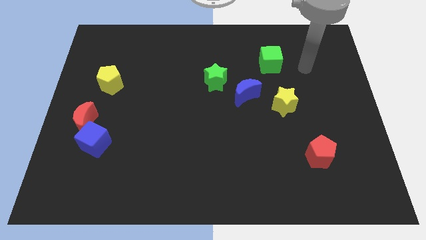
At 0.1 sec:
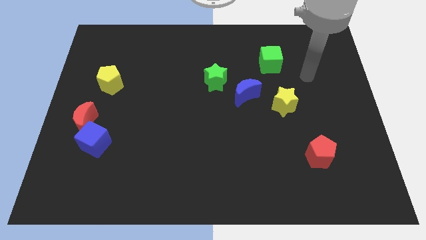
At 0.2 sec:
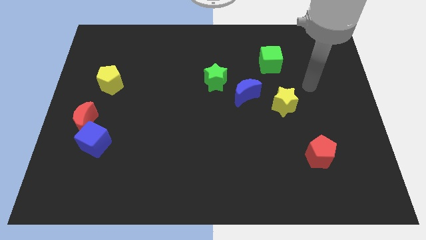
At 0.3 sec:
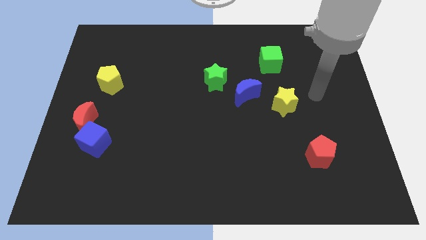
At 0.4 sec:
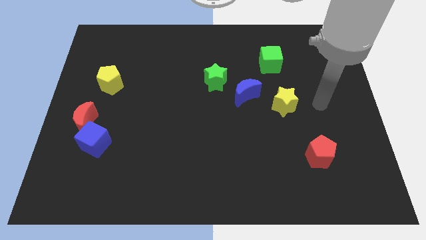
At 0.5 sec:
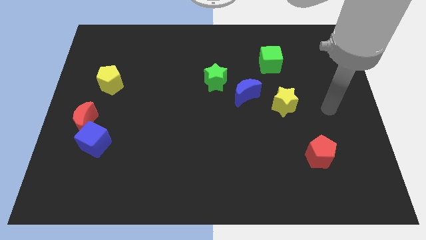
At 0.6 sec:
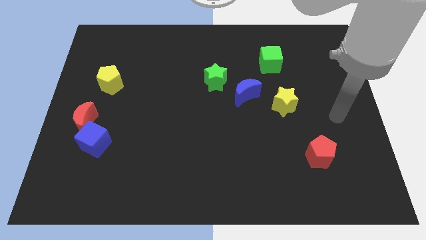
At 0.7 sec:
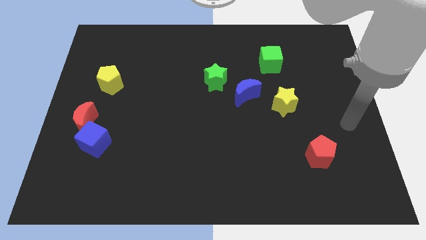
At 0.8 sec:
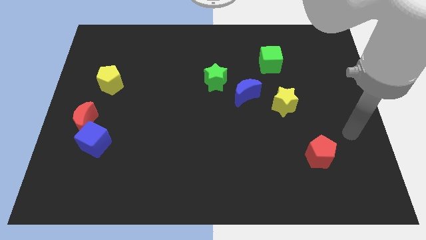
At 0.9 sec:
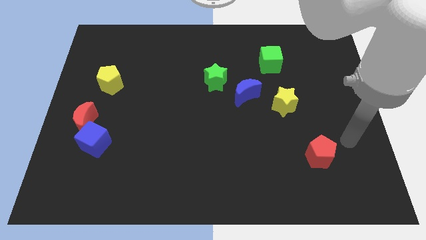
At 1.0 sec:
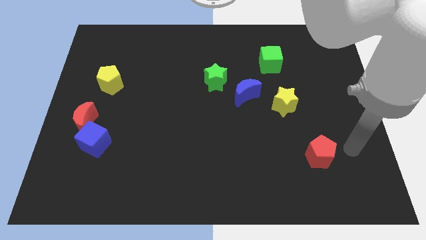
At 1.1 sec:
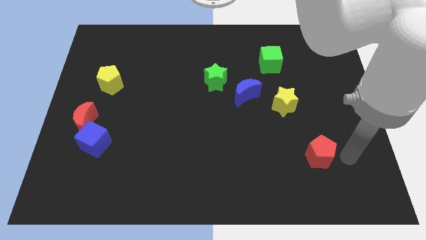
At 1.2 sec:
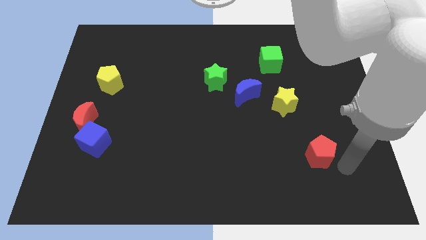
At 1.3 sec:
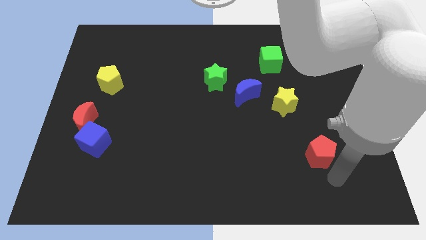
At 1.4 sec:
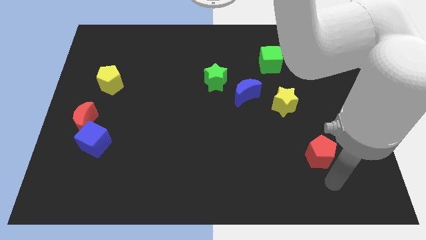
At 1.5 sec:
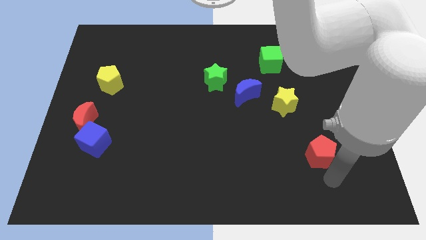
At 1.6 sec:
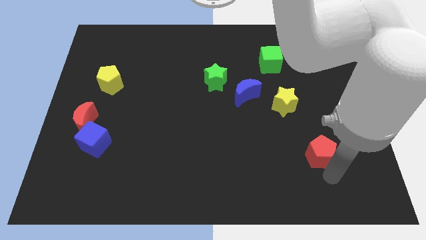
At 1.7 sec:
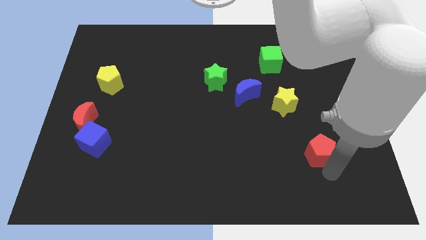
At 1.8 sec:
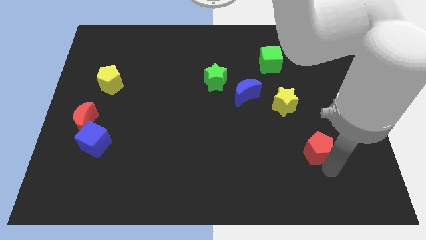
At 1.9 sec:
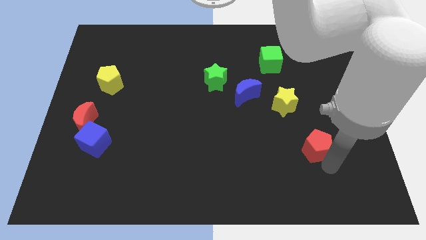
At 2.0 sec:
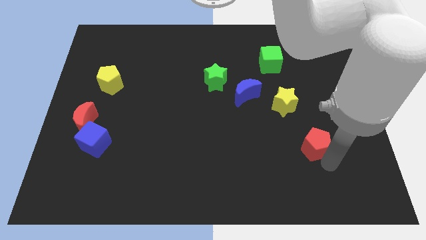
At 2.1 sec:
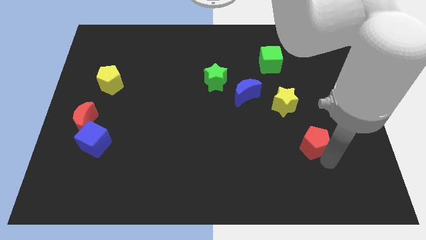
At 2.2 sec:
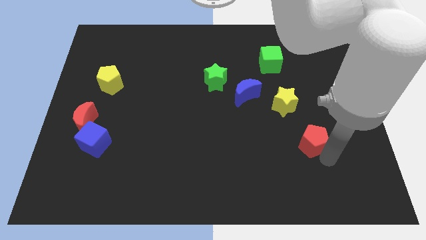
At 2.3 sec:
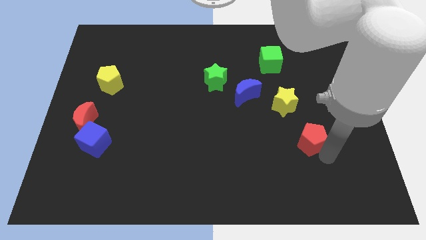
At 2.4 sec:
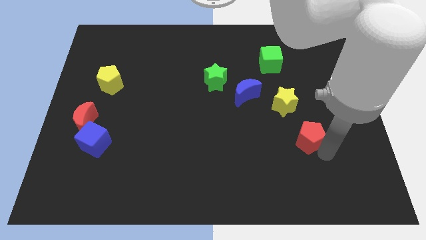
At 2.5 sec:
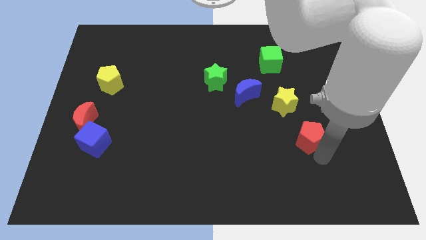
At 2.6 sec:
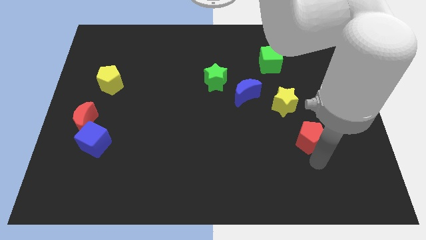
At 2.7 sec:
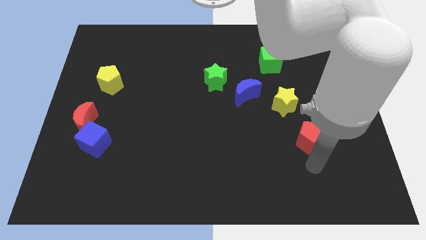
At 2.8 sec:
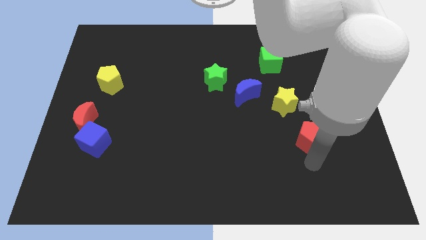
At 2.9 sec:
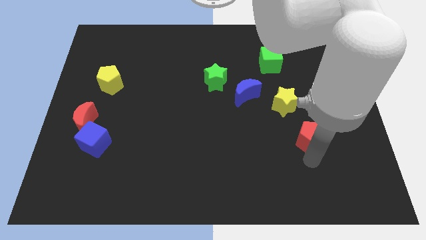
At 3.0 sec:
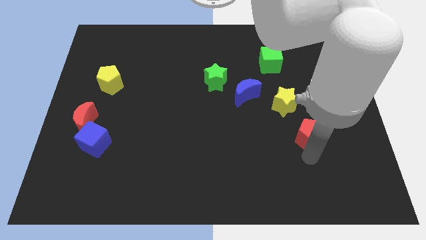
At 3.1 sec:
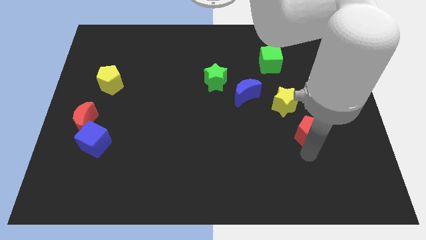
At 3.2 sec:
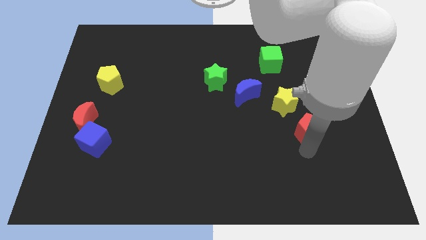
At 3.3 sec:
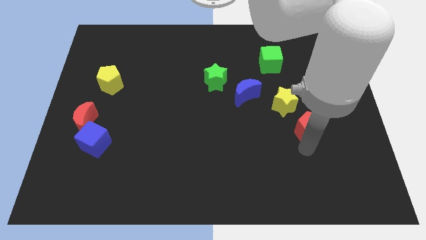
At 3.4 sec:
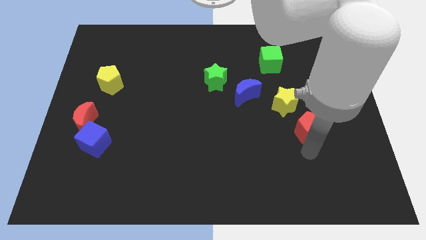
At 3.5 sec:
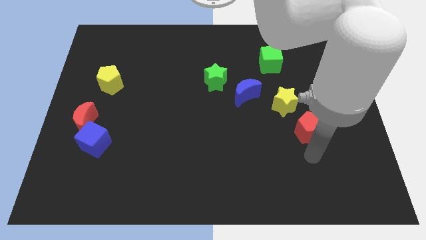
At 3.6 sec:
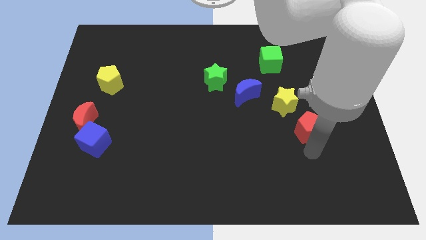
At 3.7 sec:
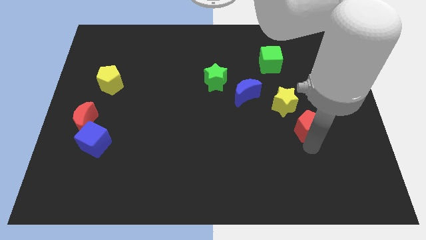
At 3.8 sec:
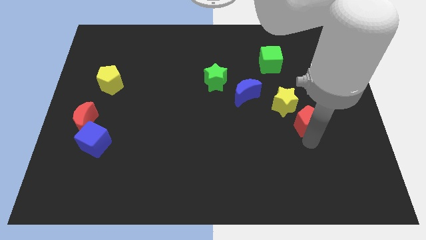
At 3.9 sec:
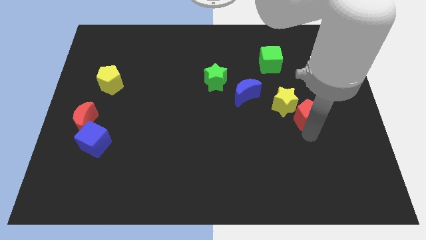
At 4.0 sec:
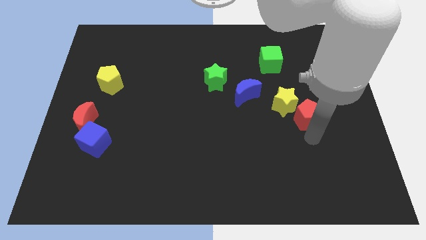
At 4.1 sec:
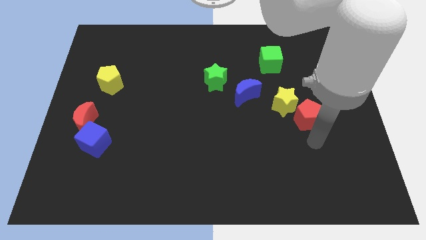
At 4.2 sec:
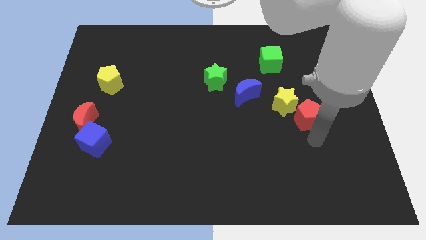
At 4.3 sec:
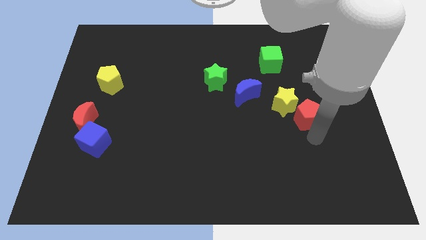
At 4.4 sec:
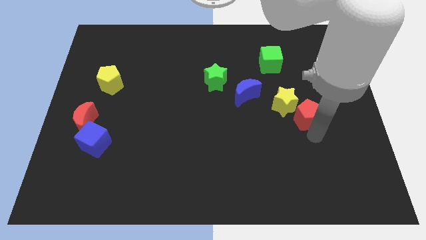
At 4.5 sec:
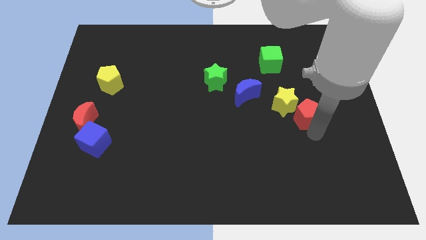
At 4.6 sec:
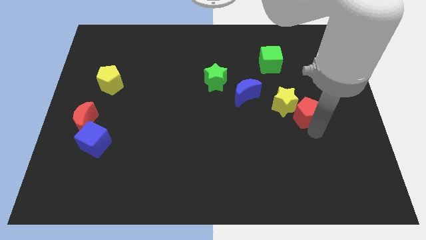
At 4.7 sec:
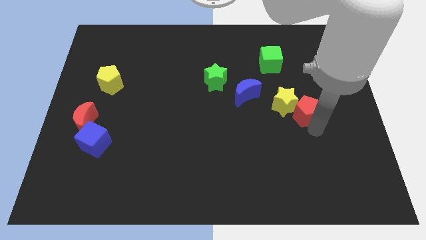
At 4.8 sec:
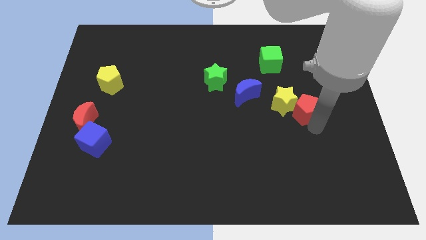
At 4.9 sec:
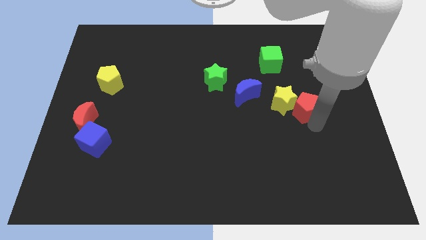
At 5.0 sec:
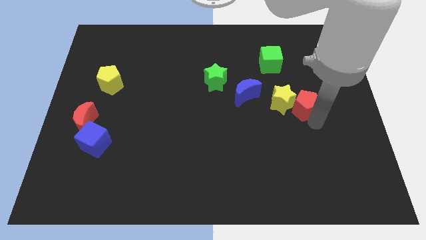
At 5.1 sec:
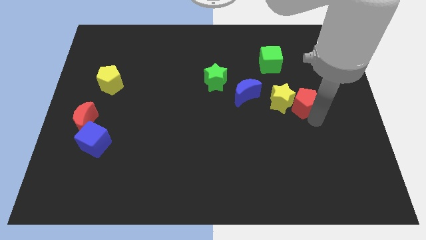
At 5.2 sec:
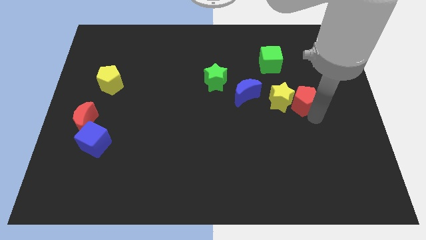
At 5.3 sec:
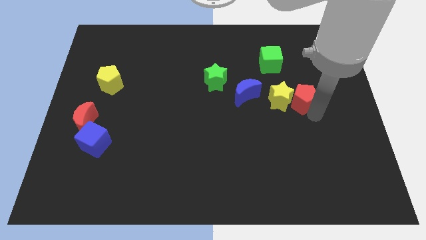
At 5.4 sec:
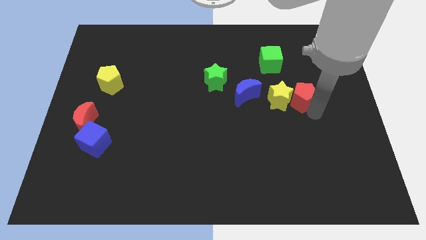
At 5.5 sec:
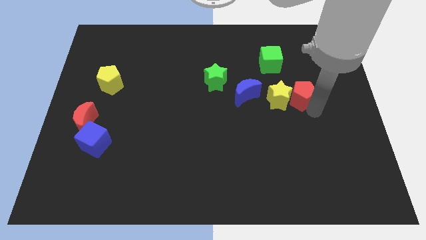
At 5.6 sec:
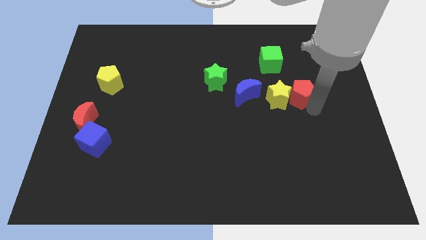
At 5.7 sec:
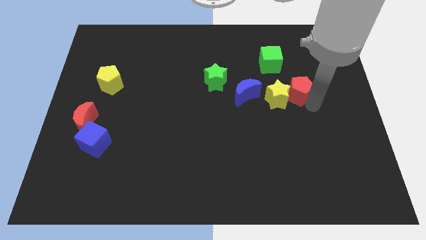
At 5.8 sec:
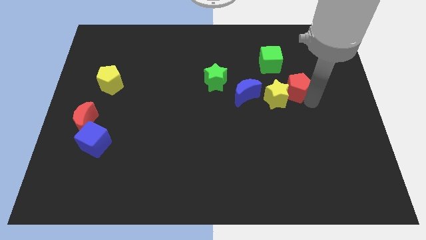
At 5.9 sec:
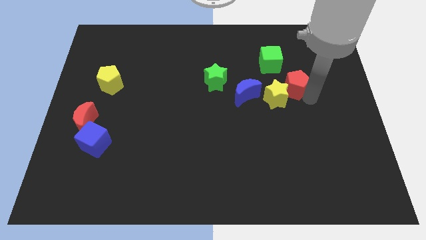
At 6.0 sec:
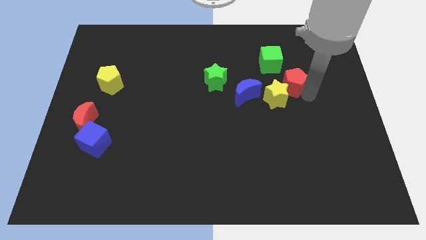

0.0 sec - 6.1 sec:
push the red pentagon to the top of the yellow star

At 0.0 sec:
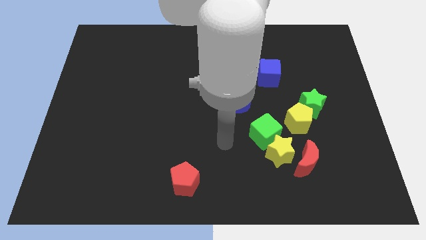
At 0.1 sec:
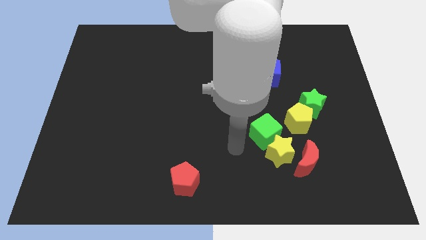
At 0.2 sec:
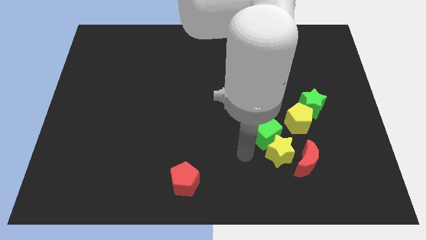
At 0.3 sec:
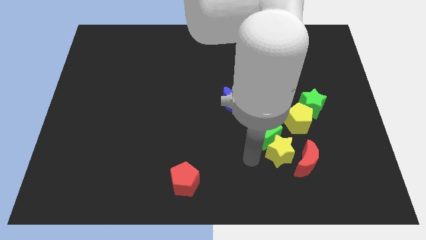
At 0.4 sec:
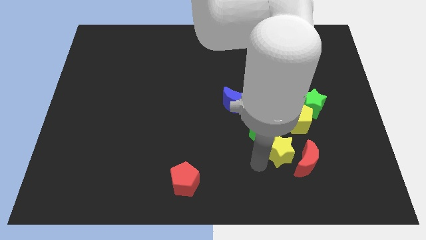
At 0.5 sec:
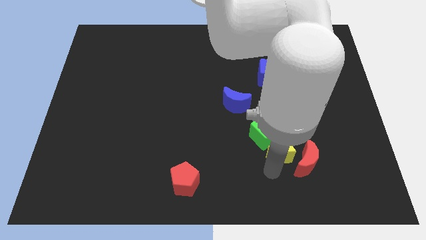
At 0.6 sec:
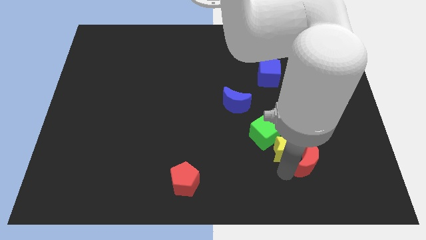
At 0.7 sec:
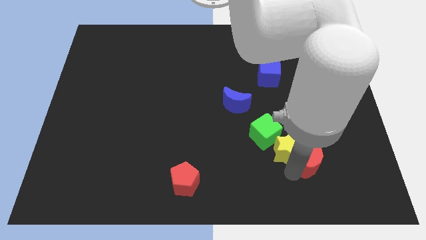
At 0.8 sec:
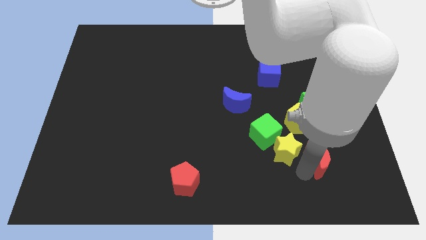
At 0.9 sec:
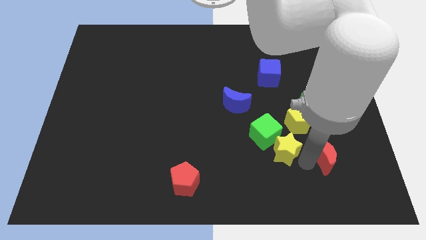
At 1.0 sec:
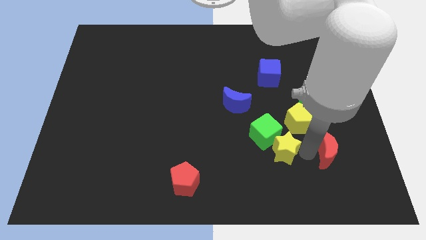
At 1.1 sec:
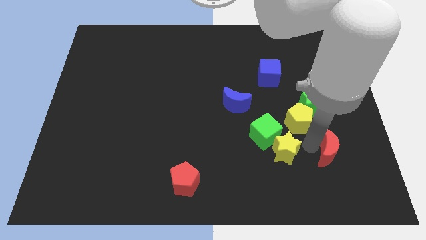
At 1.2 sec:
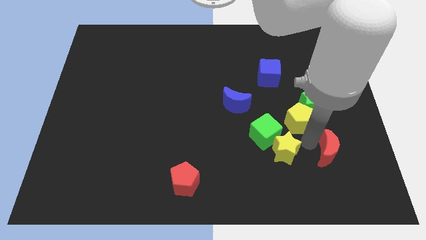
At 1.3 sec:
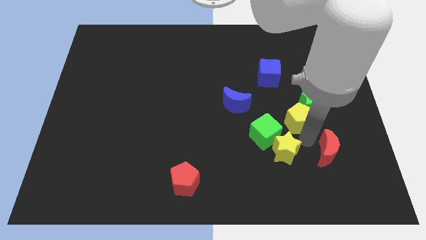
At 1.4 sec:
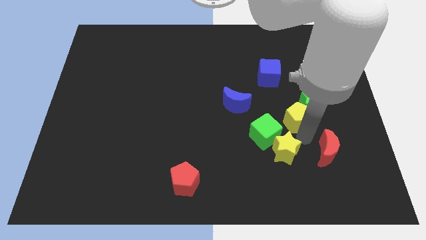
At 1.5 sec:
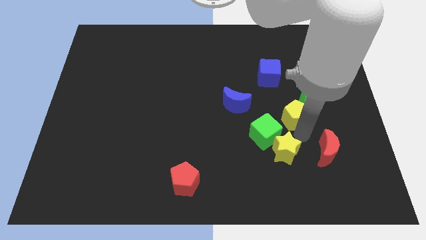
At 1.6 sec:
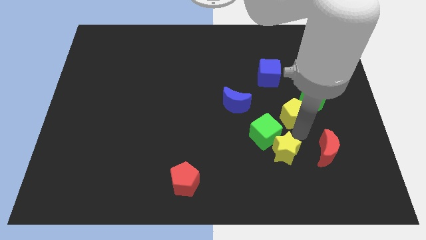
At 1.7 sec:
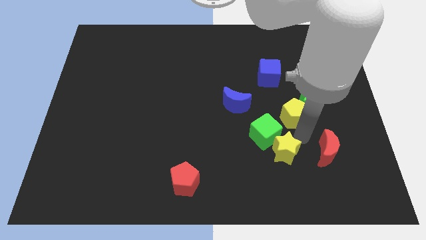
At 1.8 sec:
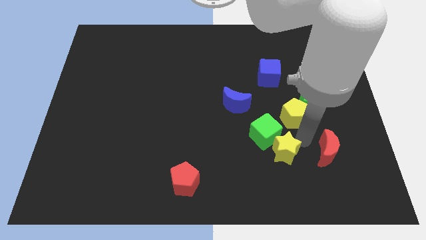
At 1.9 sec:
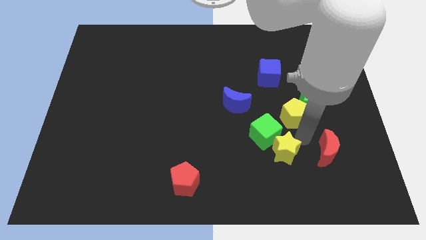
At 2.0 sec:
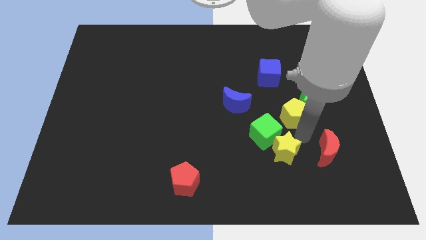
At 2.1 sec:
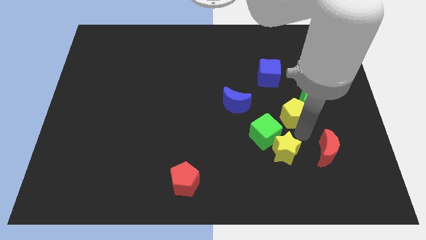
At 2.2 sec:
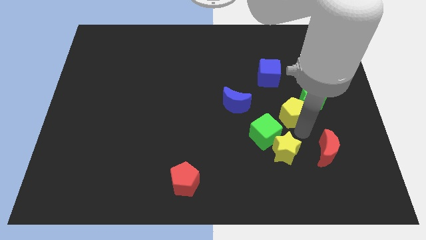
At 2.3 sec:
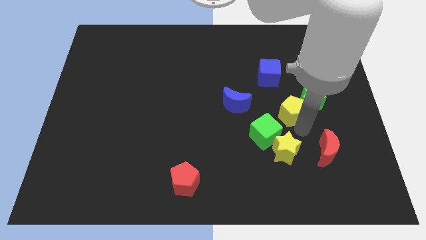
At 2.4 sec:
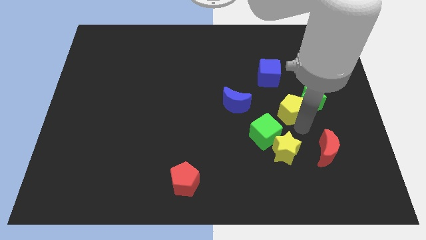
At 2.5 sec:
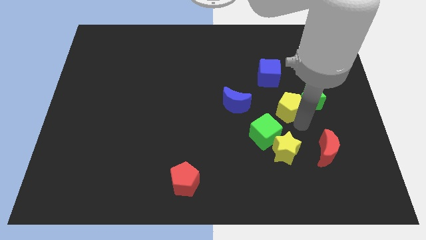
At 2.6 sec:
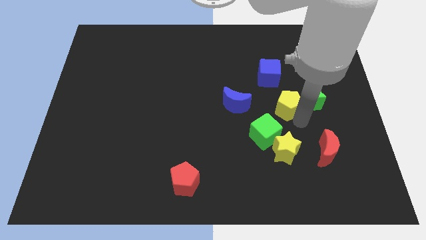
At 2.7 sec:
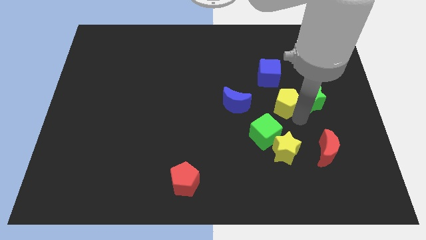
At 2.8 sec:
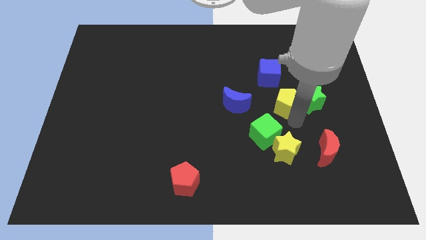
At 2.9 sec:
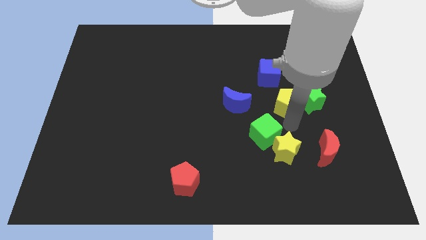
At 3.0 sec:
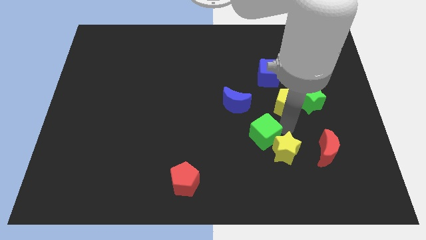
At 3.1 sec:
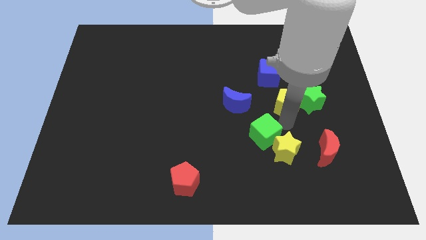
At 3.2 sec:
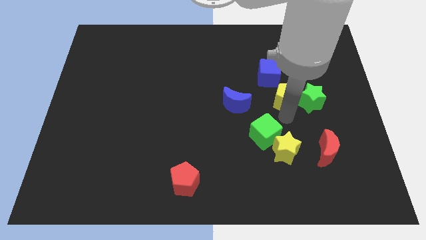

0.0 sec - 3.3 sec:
put the yellow pentagon to the top left of the green star
